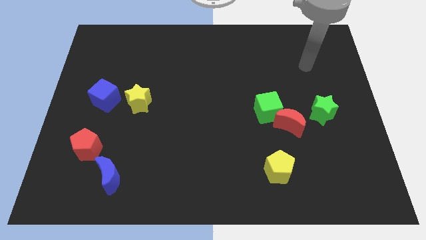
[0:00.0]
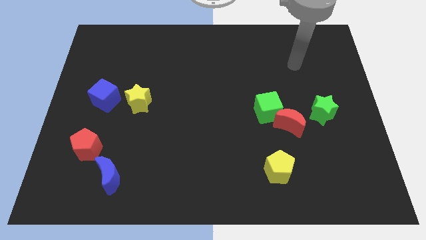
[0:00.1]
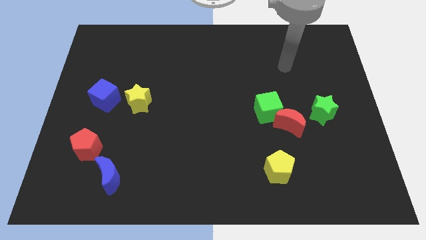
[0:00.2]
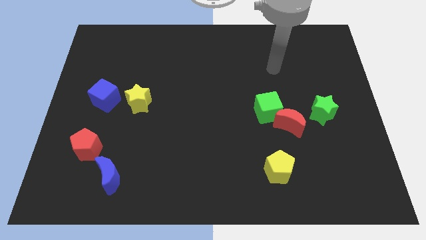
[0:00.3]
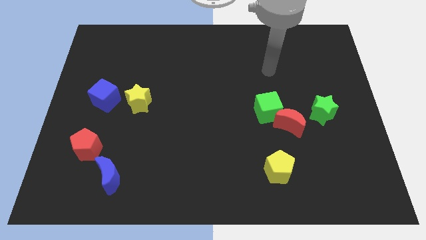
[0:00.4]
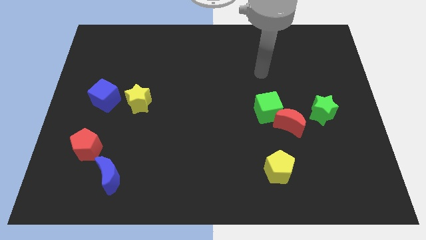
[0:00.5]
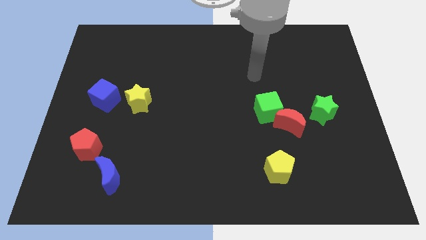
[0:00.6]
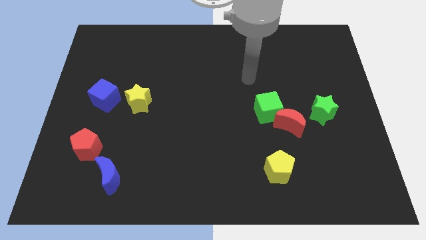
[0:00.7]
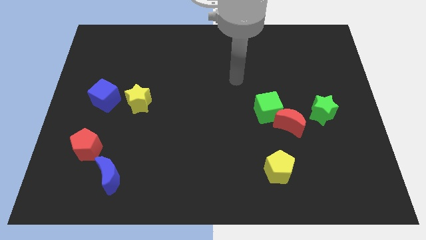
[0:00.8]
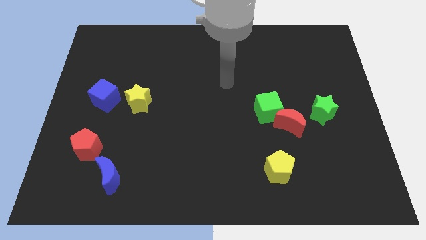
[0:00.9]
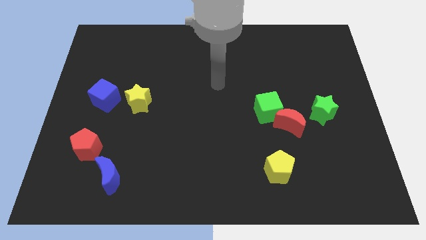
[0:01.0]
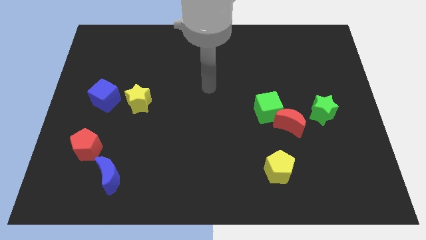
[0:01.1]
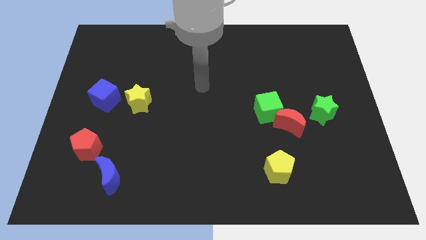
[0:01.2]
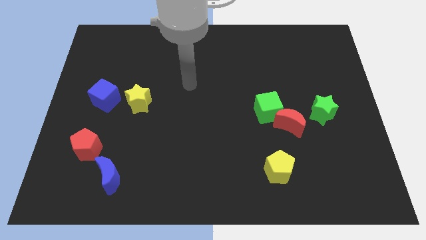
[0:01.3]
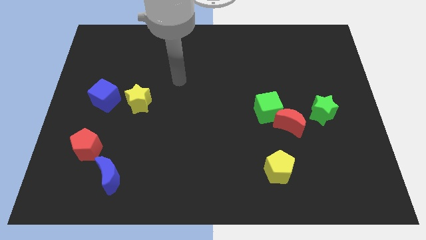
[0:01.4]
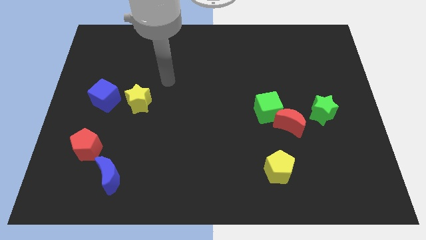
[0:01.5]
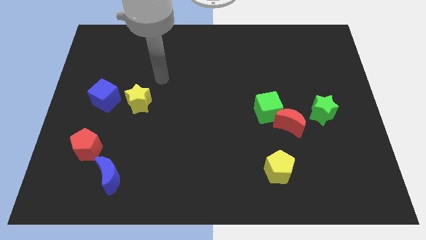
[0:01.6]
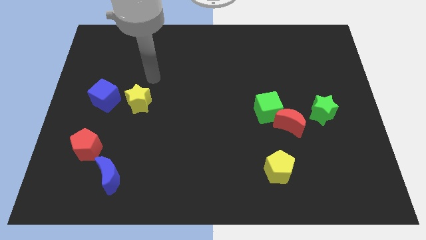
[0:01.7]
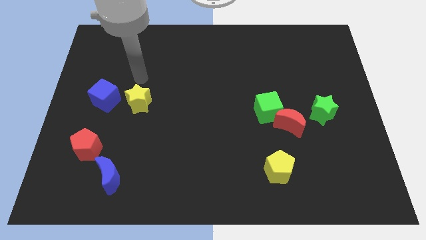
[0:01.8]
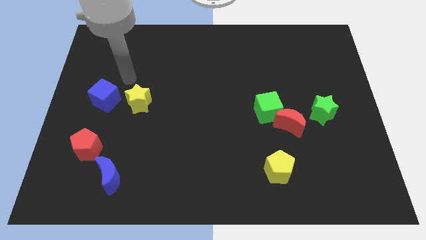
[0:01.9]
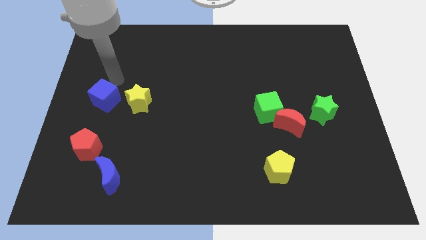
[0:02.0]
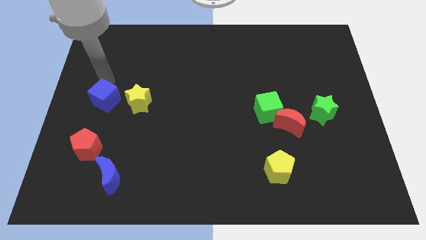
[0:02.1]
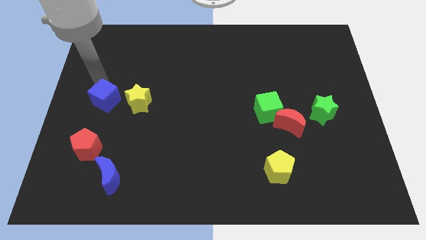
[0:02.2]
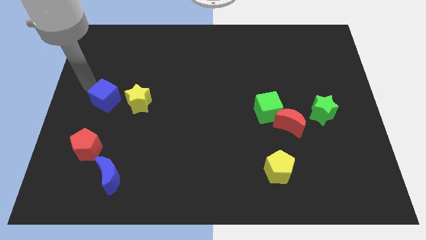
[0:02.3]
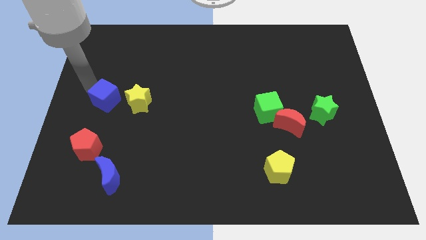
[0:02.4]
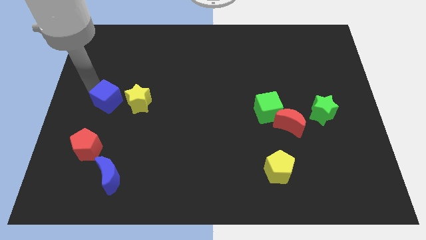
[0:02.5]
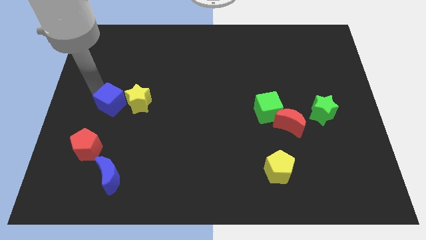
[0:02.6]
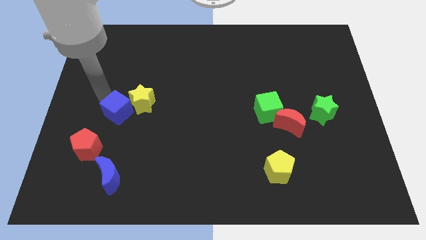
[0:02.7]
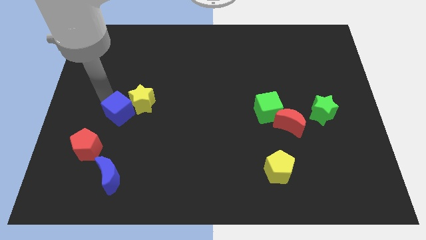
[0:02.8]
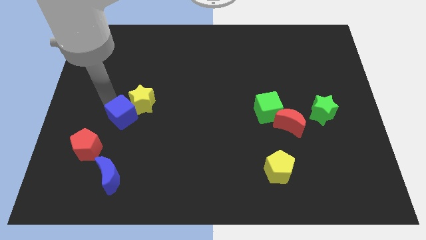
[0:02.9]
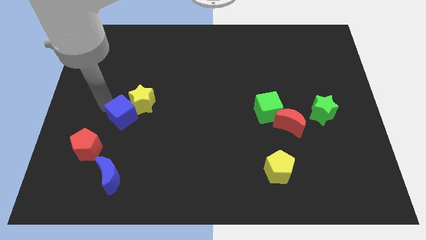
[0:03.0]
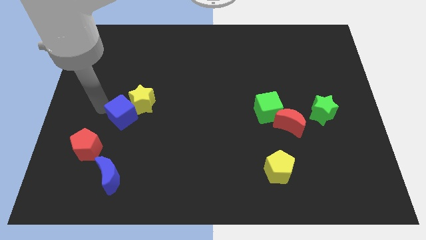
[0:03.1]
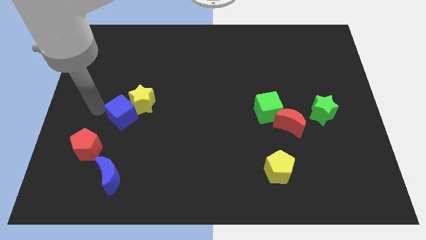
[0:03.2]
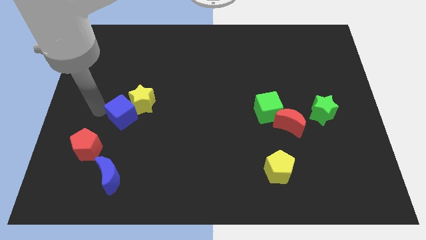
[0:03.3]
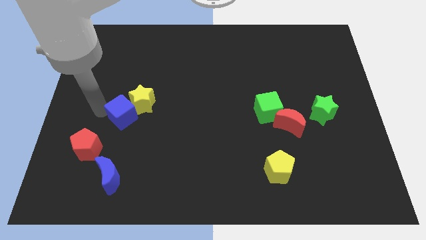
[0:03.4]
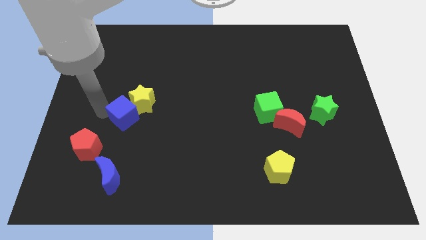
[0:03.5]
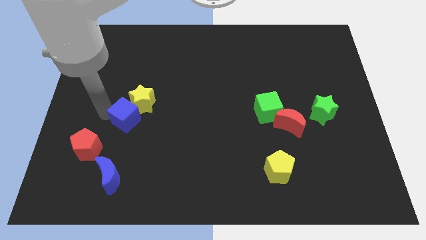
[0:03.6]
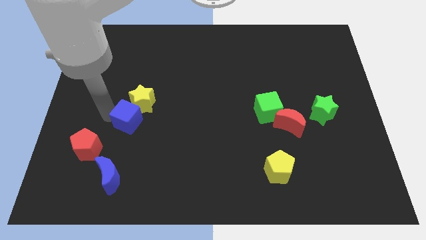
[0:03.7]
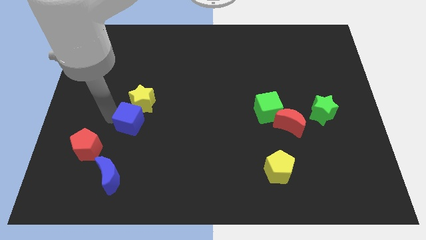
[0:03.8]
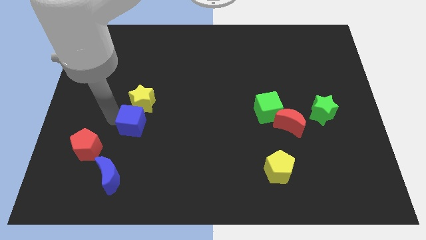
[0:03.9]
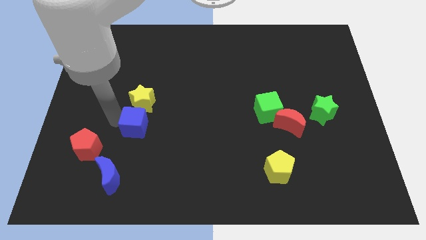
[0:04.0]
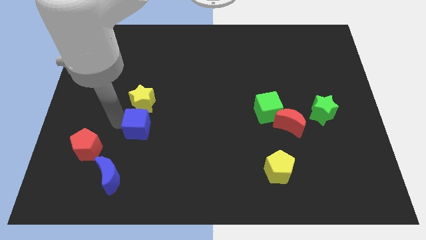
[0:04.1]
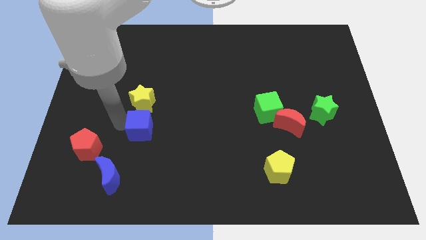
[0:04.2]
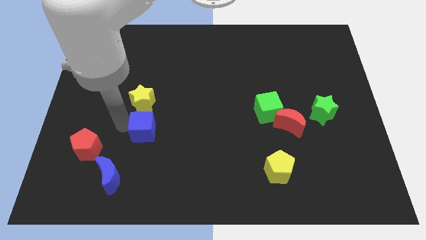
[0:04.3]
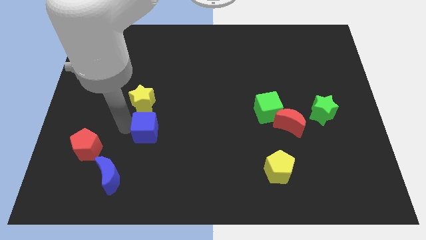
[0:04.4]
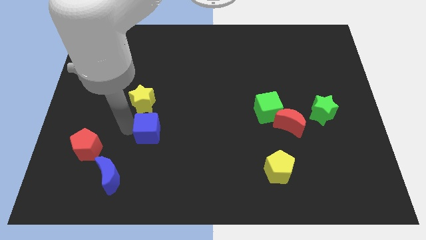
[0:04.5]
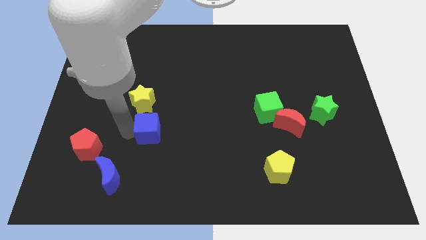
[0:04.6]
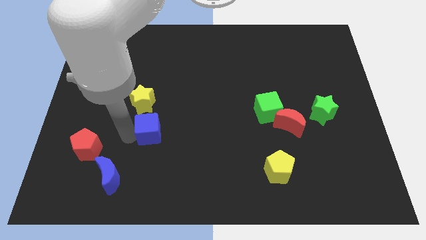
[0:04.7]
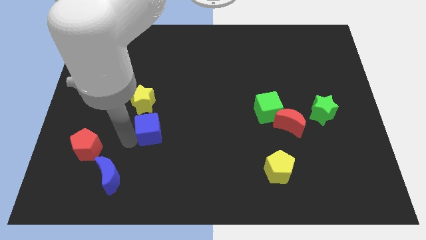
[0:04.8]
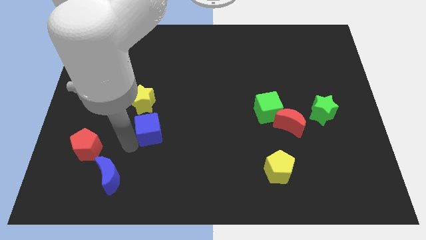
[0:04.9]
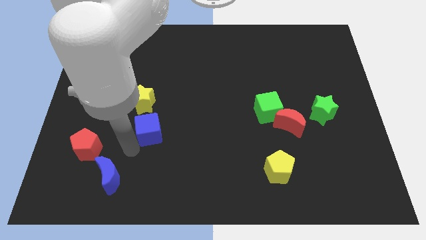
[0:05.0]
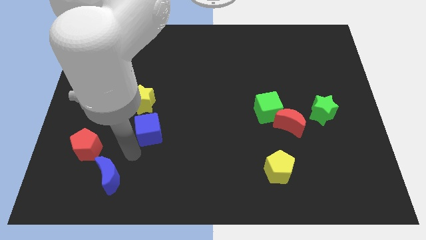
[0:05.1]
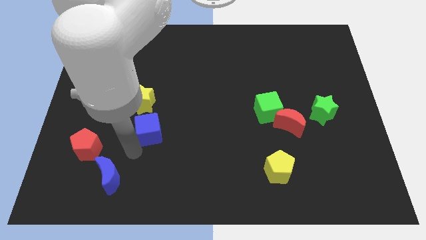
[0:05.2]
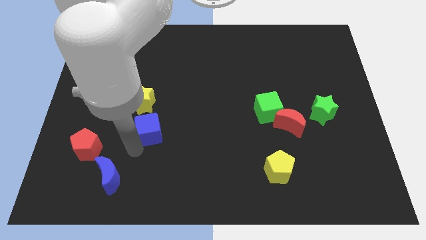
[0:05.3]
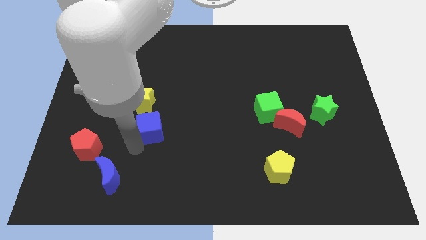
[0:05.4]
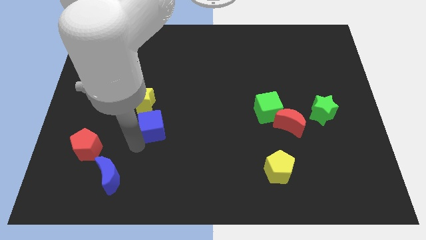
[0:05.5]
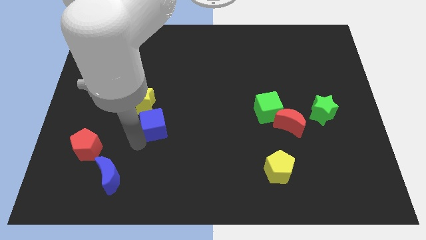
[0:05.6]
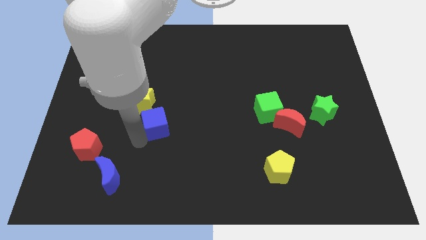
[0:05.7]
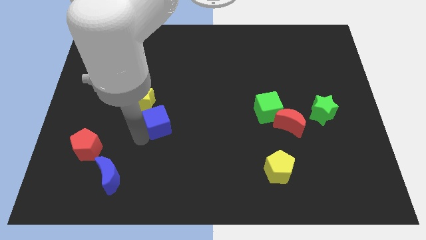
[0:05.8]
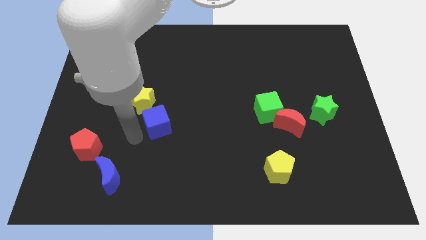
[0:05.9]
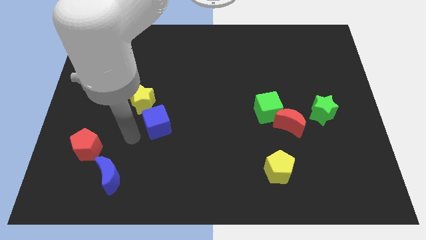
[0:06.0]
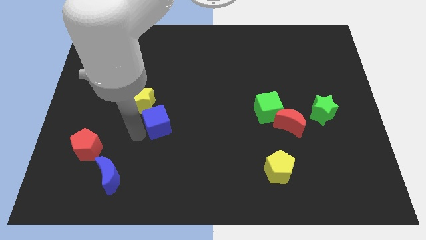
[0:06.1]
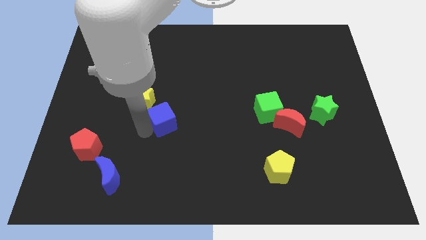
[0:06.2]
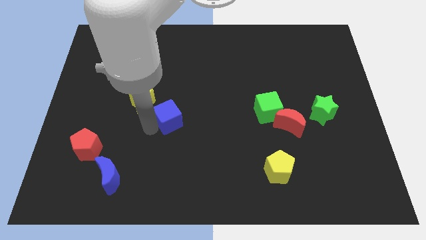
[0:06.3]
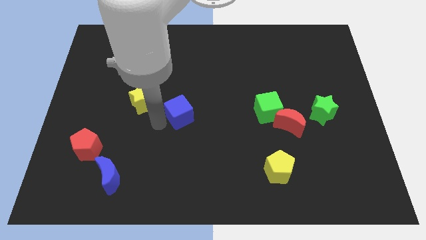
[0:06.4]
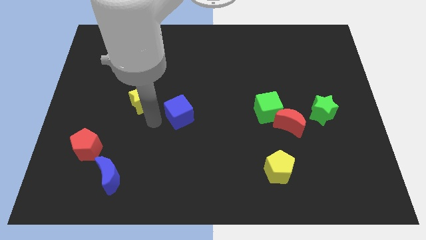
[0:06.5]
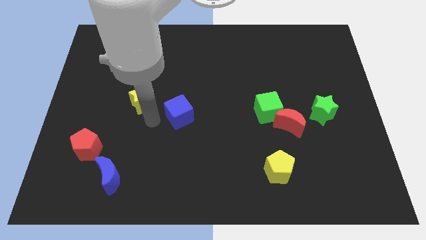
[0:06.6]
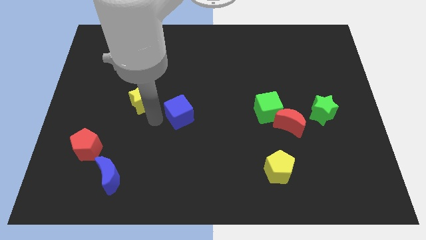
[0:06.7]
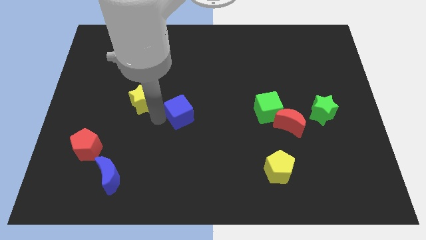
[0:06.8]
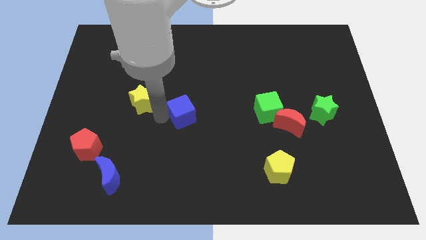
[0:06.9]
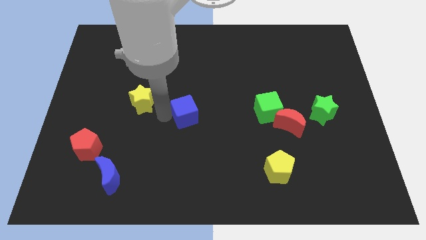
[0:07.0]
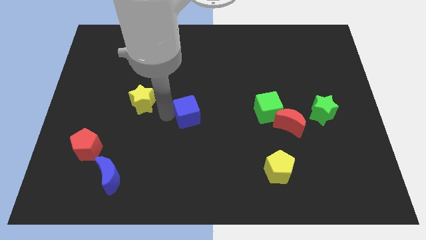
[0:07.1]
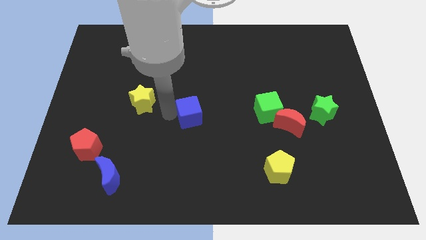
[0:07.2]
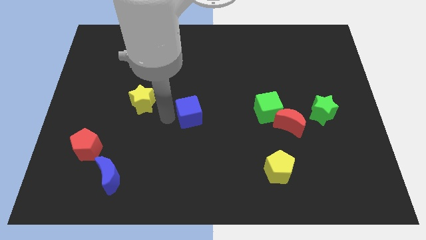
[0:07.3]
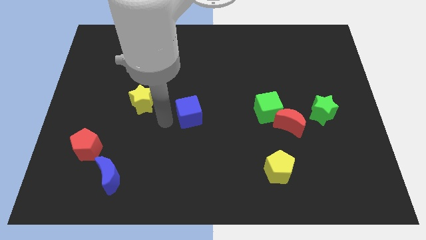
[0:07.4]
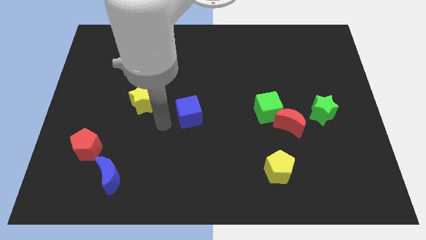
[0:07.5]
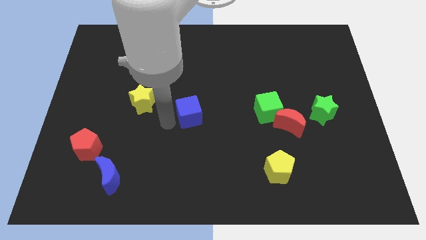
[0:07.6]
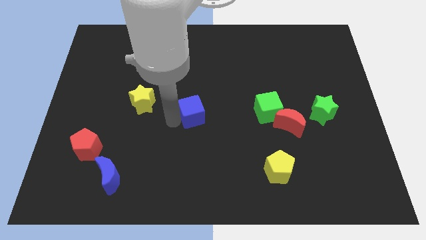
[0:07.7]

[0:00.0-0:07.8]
push the blue cube to the right
